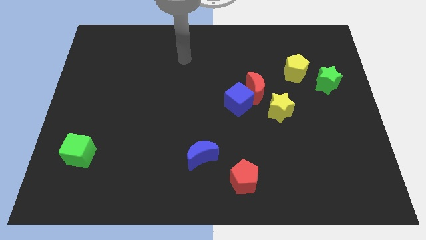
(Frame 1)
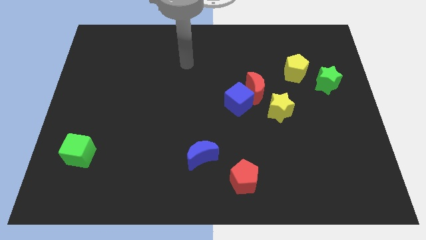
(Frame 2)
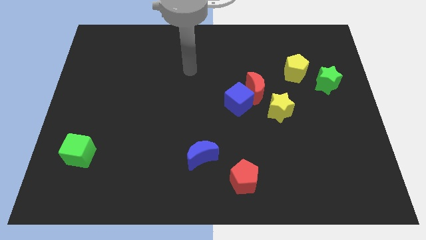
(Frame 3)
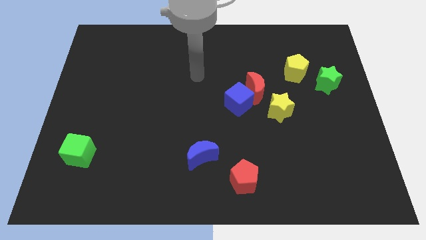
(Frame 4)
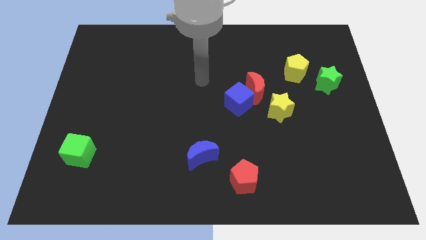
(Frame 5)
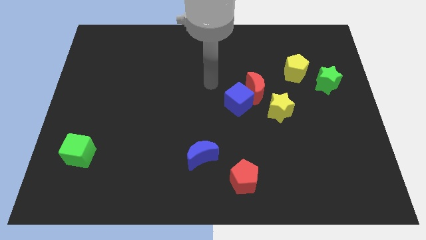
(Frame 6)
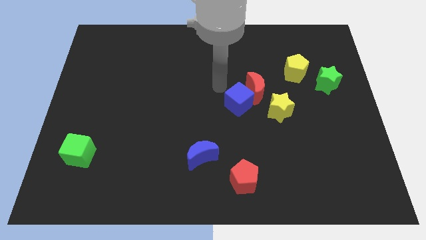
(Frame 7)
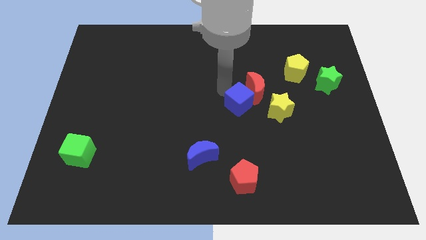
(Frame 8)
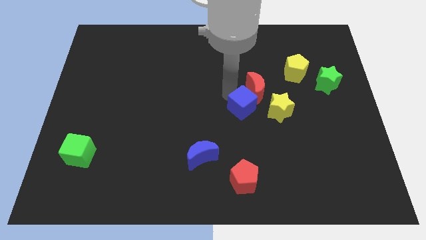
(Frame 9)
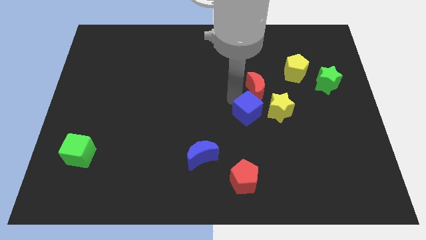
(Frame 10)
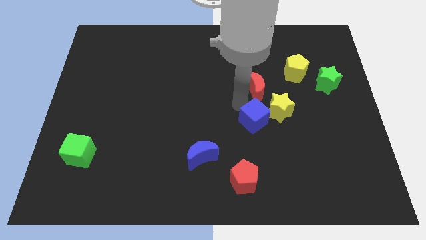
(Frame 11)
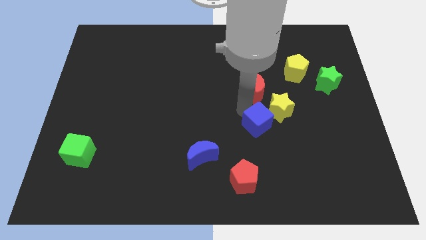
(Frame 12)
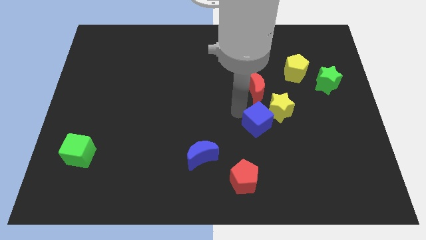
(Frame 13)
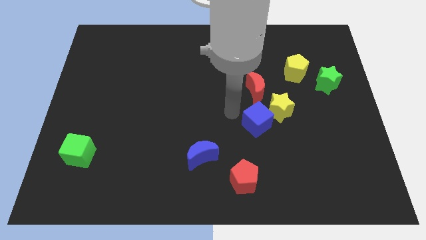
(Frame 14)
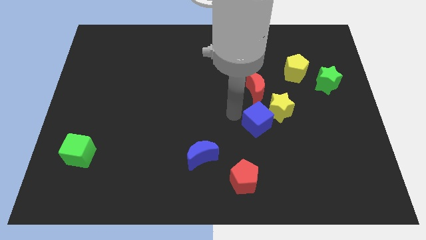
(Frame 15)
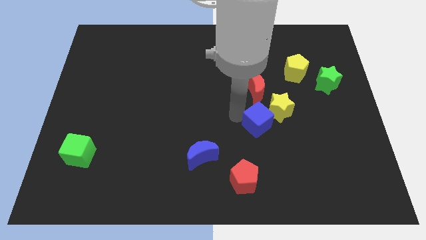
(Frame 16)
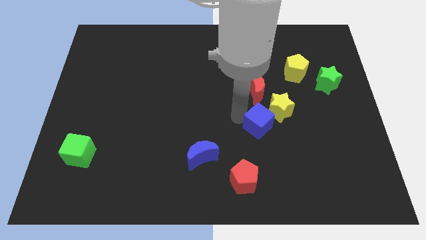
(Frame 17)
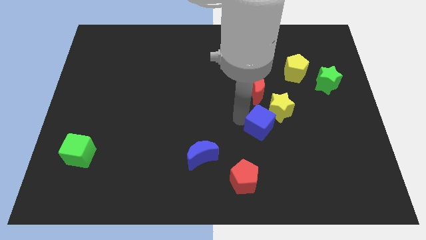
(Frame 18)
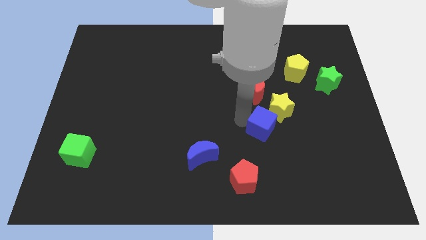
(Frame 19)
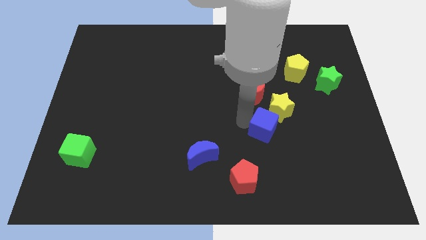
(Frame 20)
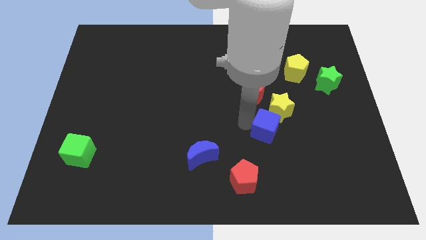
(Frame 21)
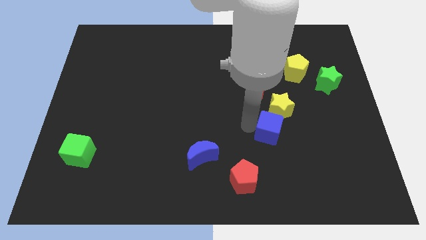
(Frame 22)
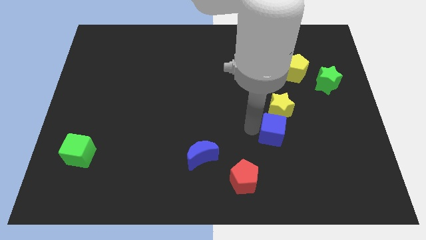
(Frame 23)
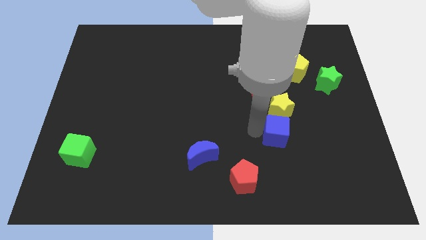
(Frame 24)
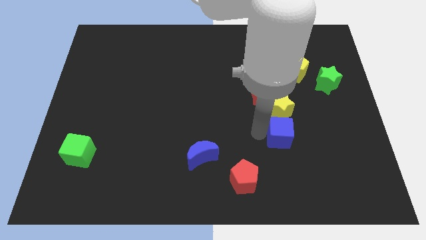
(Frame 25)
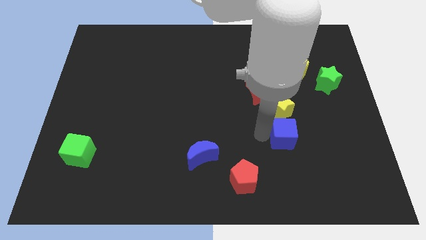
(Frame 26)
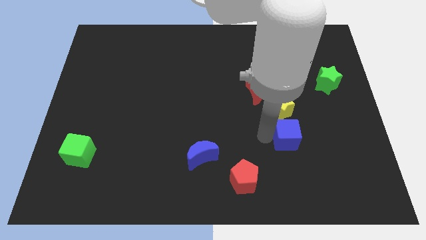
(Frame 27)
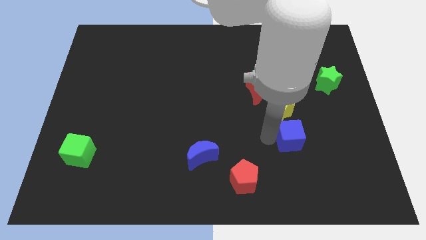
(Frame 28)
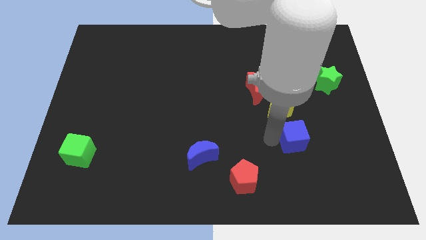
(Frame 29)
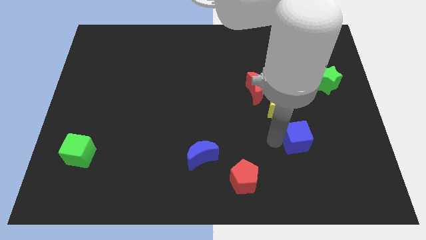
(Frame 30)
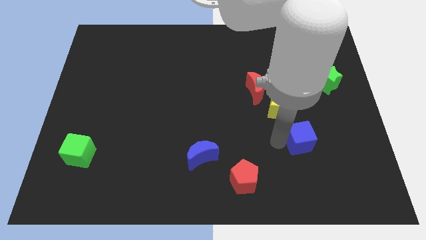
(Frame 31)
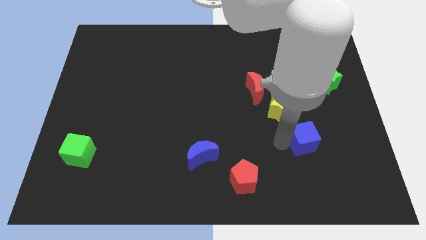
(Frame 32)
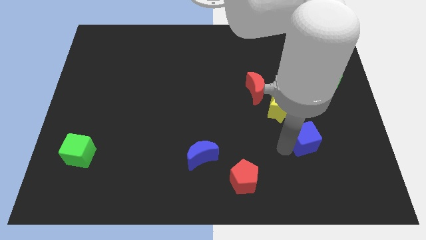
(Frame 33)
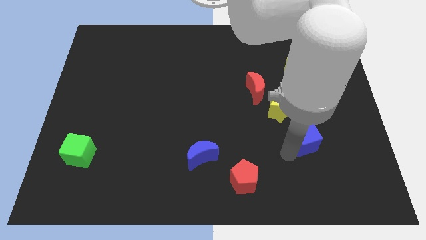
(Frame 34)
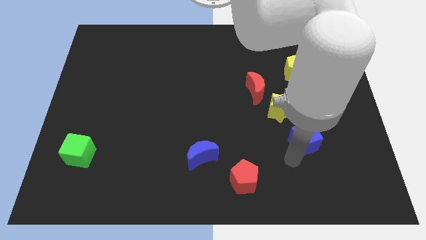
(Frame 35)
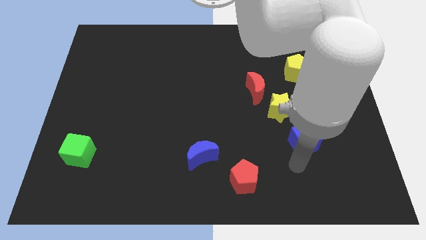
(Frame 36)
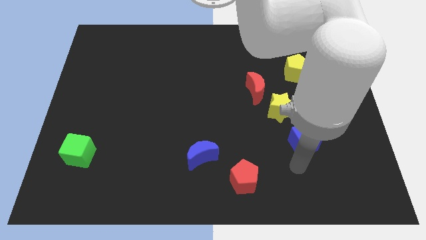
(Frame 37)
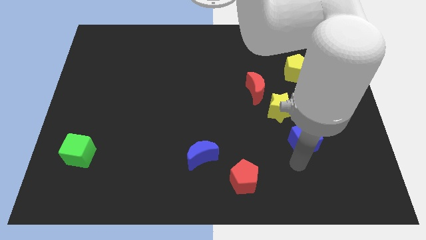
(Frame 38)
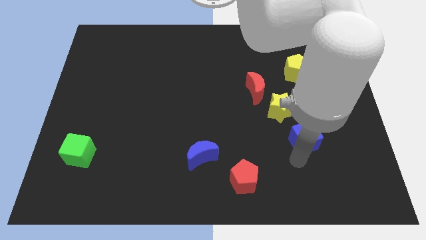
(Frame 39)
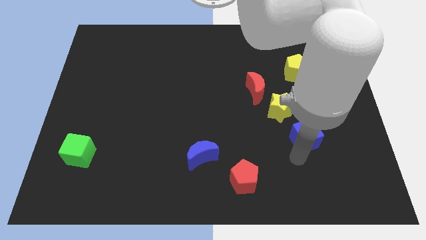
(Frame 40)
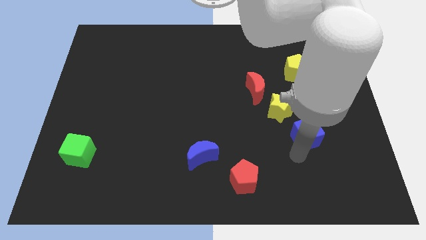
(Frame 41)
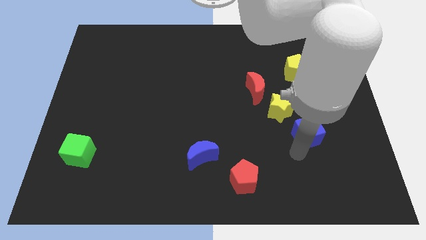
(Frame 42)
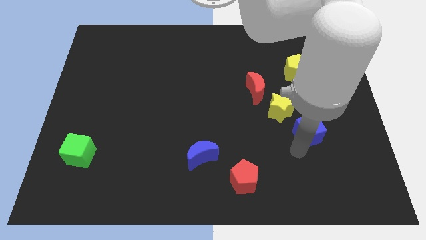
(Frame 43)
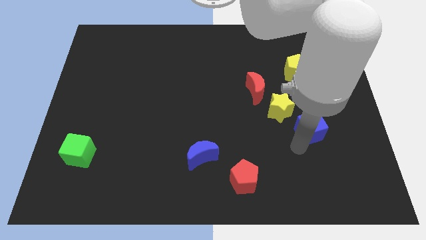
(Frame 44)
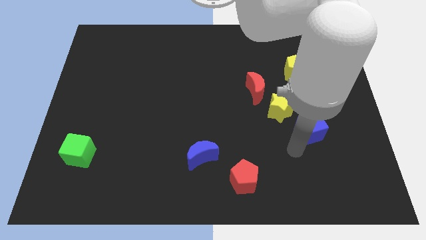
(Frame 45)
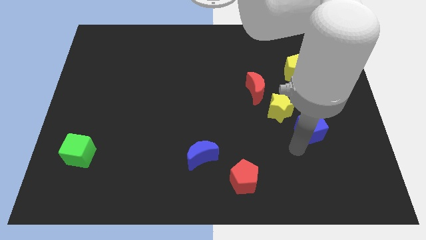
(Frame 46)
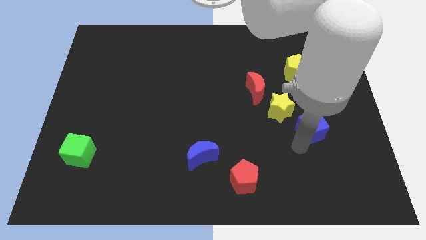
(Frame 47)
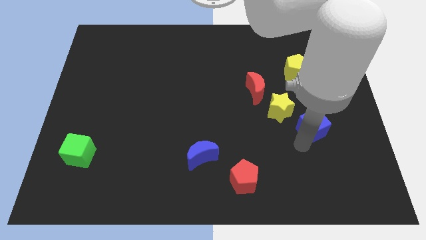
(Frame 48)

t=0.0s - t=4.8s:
push the blue cube just right of the yellow star

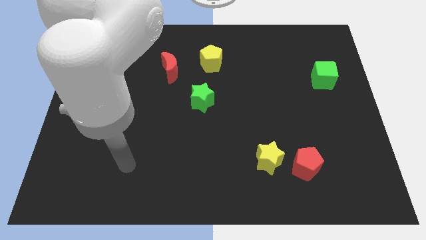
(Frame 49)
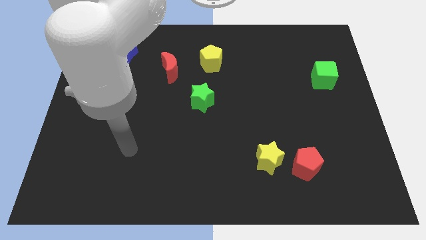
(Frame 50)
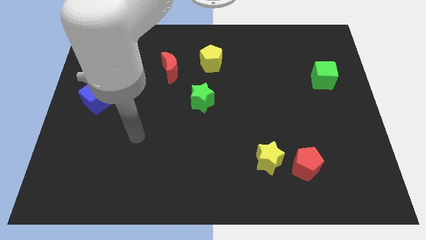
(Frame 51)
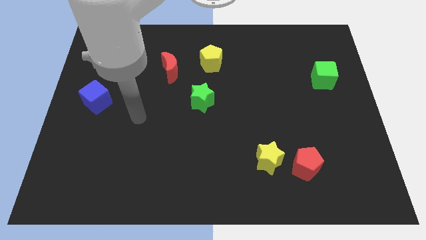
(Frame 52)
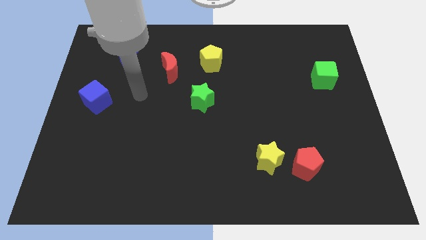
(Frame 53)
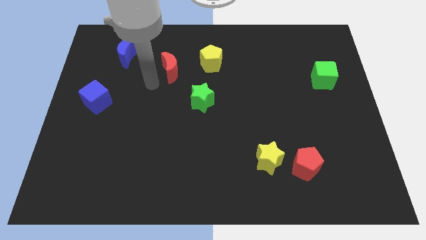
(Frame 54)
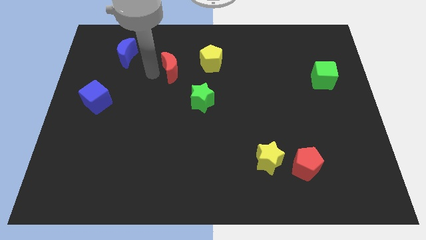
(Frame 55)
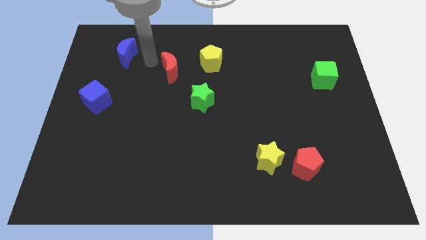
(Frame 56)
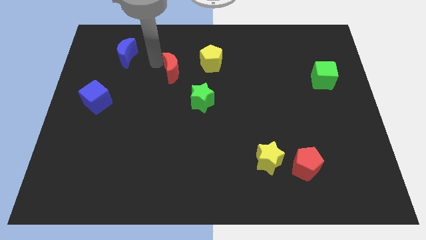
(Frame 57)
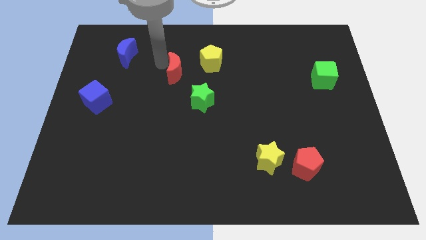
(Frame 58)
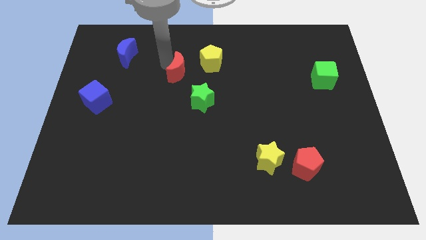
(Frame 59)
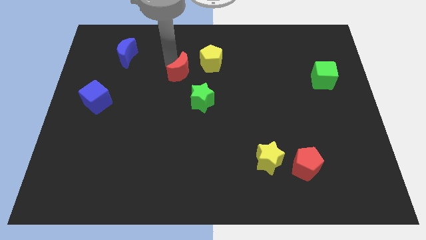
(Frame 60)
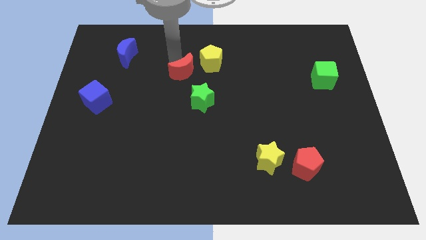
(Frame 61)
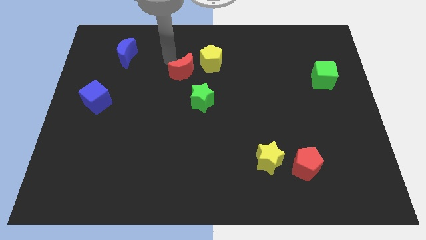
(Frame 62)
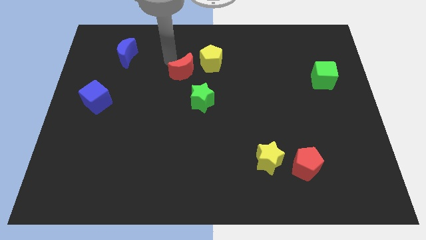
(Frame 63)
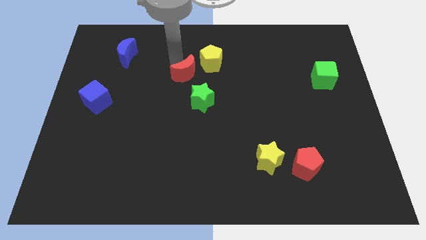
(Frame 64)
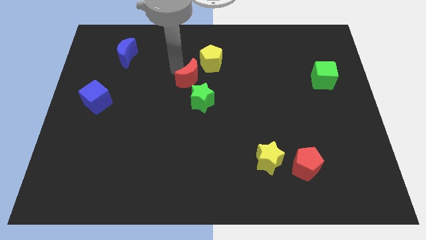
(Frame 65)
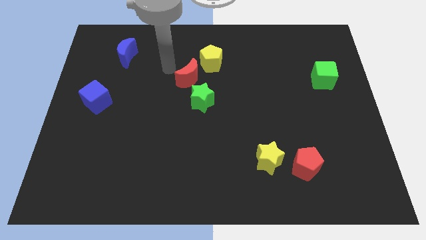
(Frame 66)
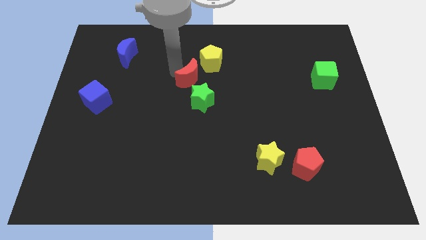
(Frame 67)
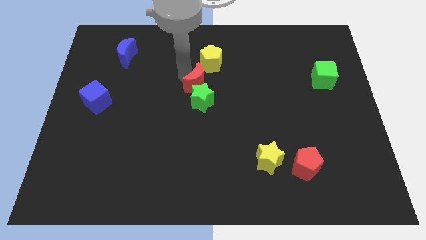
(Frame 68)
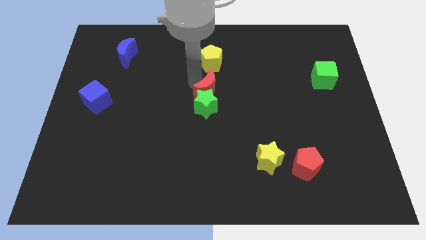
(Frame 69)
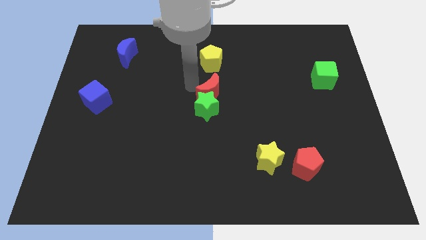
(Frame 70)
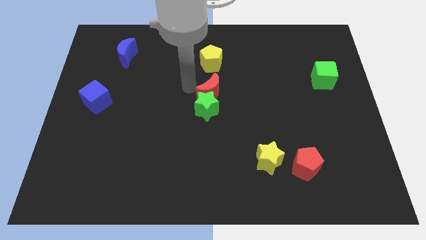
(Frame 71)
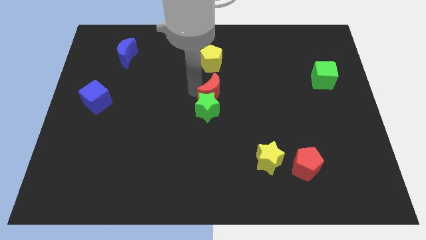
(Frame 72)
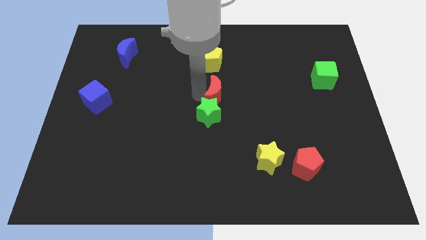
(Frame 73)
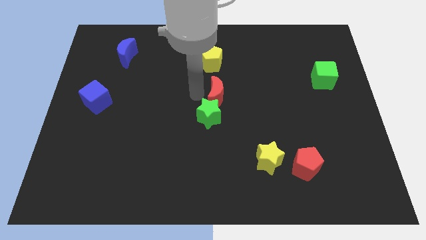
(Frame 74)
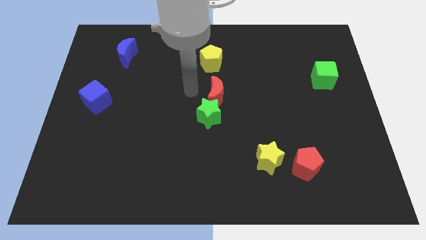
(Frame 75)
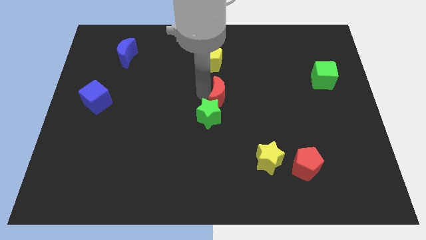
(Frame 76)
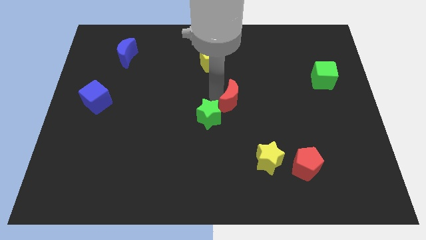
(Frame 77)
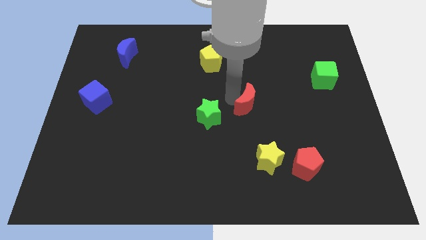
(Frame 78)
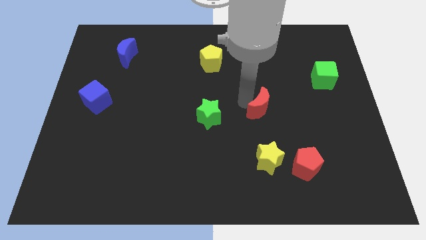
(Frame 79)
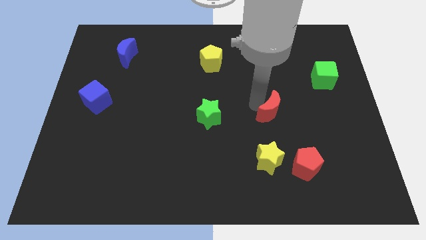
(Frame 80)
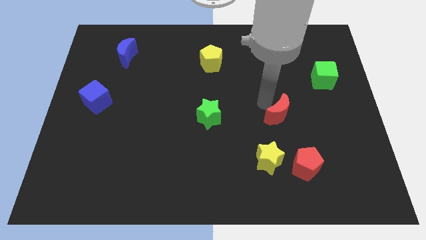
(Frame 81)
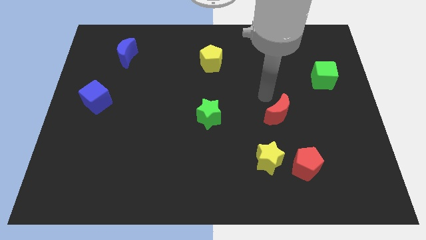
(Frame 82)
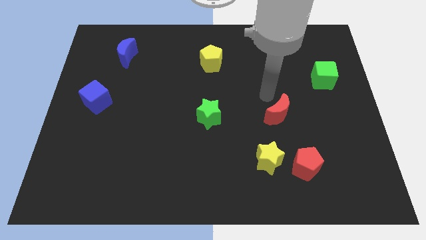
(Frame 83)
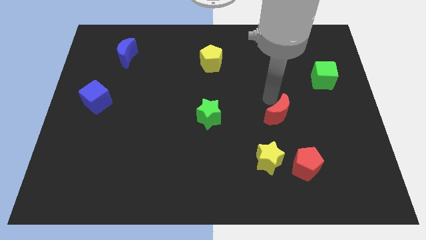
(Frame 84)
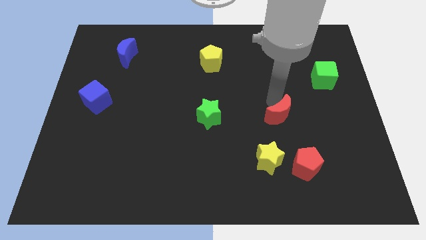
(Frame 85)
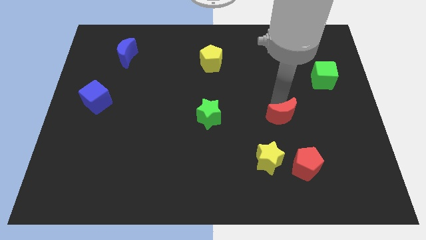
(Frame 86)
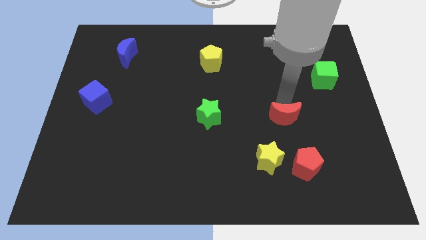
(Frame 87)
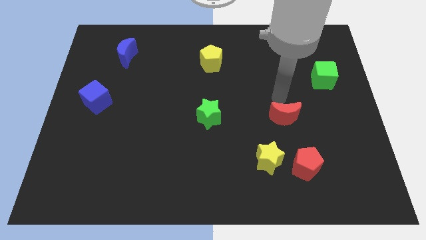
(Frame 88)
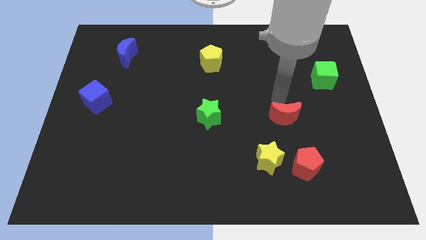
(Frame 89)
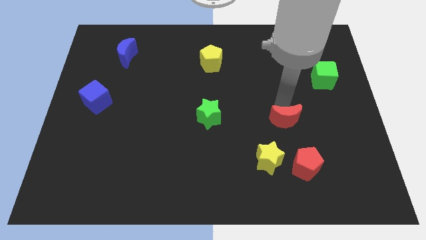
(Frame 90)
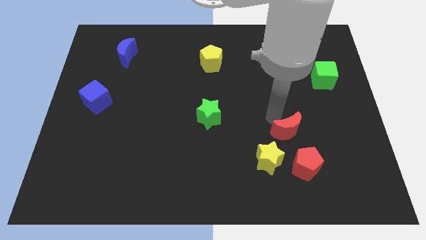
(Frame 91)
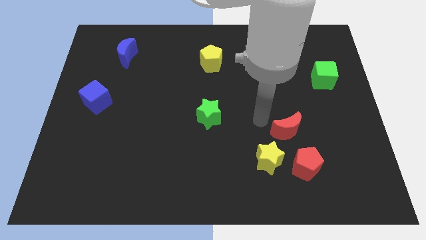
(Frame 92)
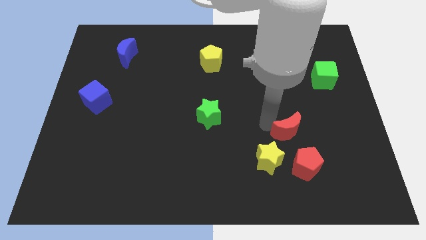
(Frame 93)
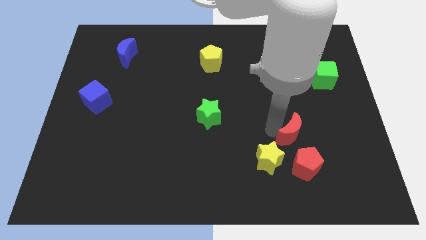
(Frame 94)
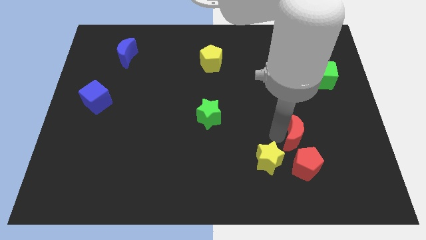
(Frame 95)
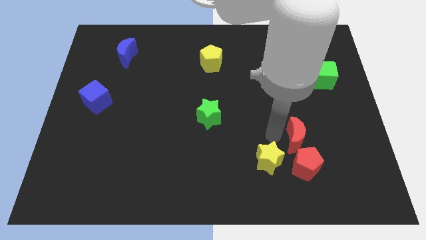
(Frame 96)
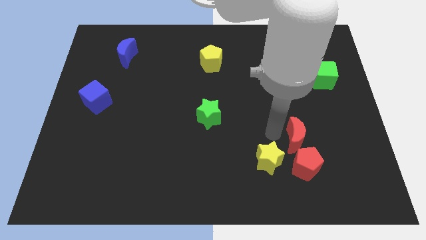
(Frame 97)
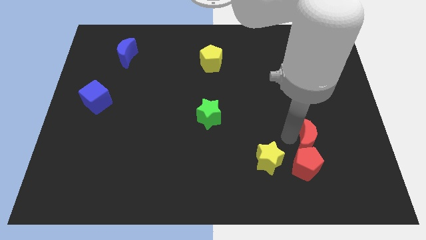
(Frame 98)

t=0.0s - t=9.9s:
push the red moon diagonally up and to the right of the red pentagon
